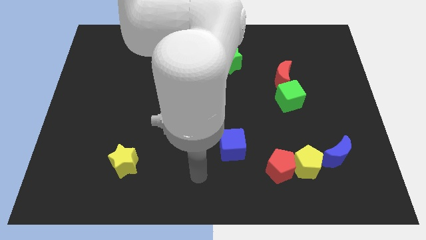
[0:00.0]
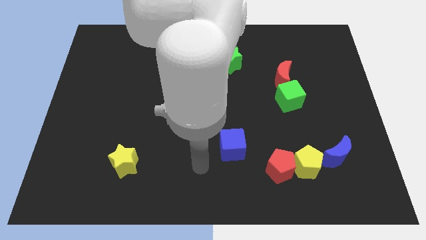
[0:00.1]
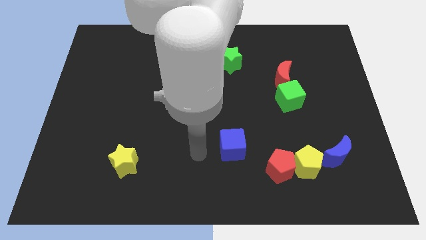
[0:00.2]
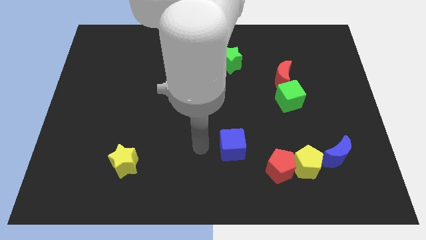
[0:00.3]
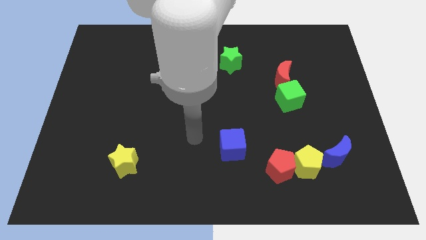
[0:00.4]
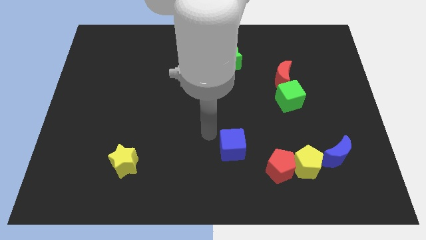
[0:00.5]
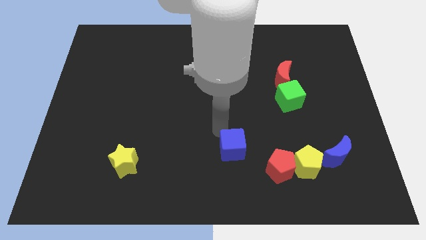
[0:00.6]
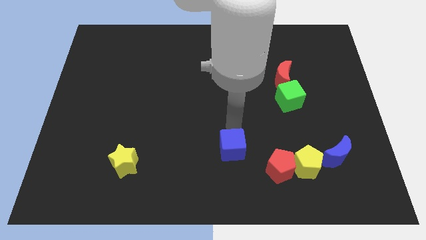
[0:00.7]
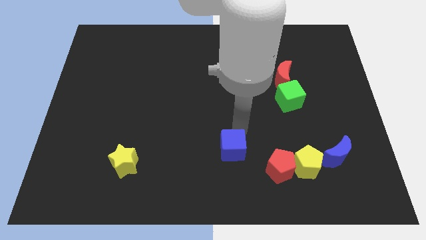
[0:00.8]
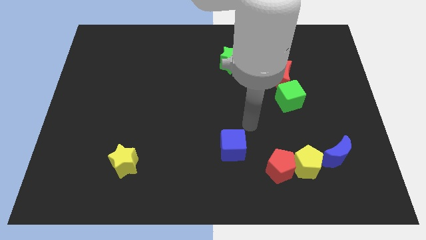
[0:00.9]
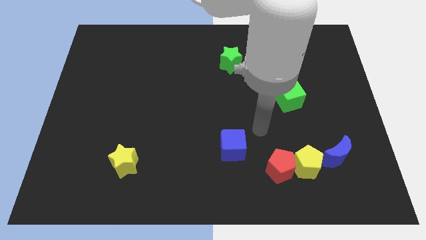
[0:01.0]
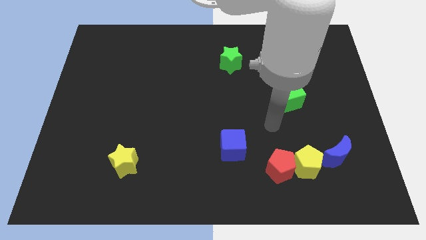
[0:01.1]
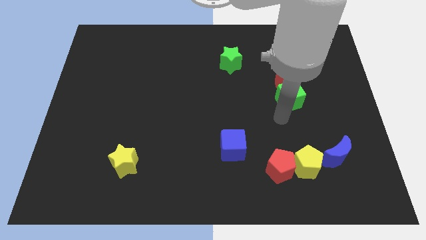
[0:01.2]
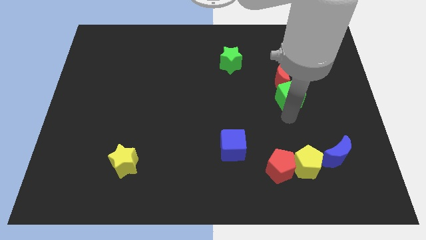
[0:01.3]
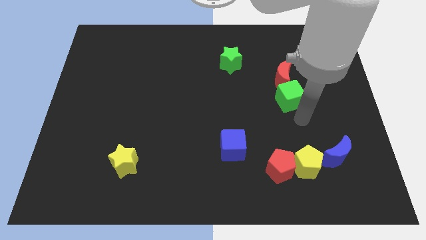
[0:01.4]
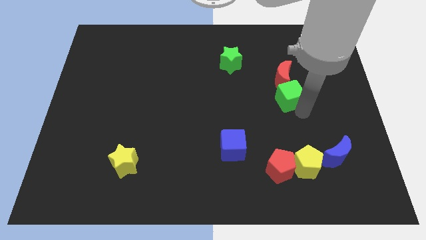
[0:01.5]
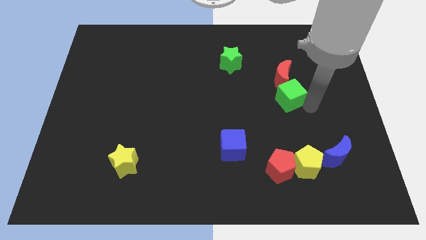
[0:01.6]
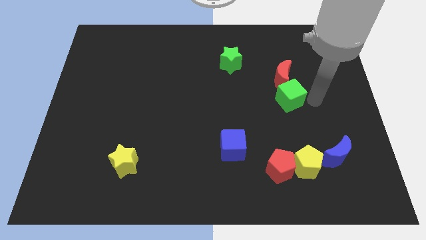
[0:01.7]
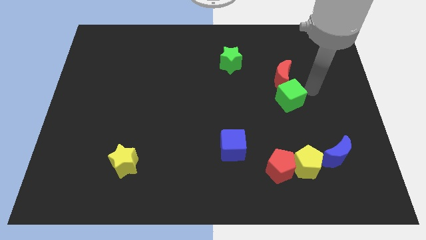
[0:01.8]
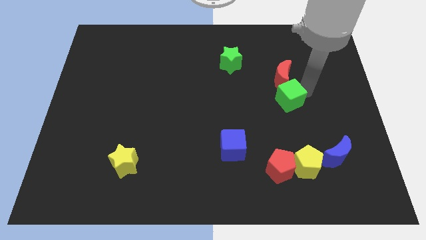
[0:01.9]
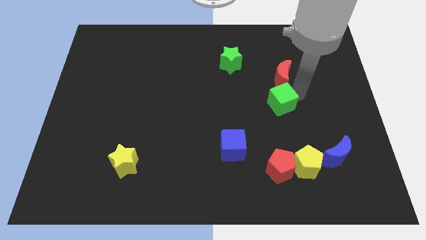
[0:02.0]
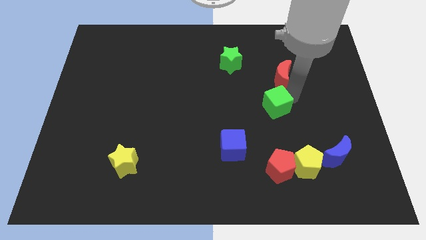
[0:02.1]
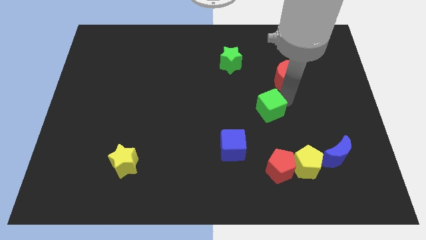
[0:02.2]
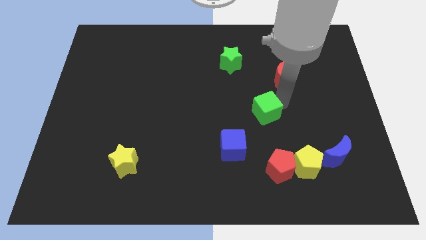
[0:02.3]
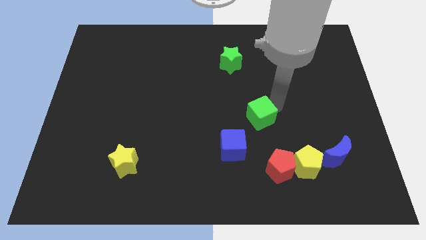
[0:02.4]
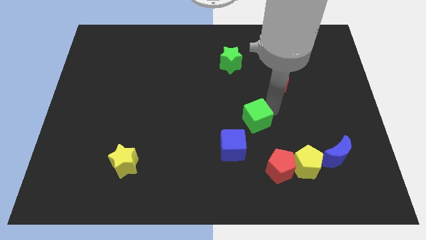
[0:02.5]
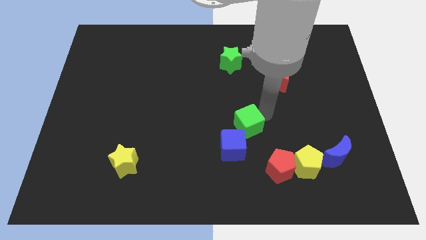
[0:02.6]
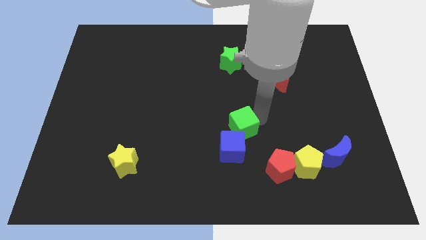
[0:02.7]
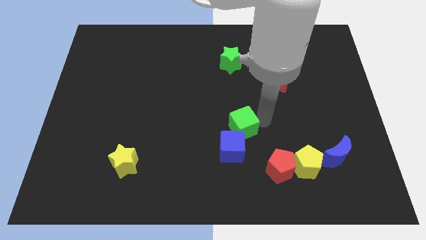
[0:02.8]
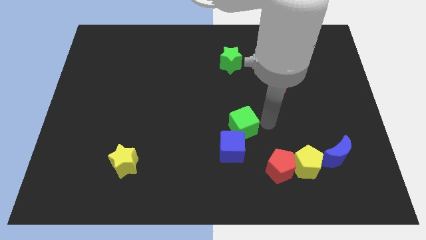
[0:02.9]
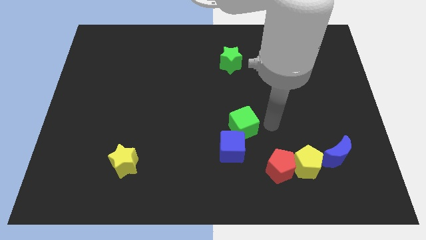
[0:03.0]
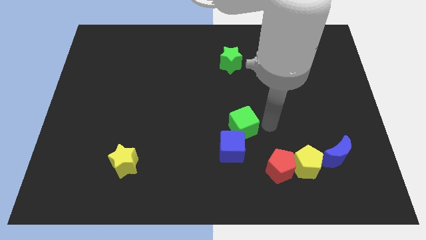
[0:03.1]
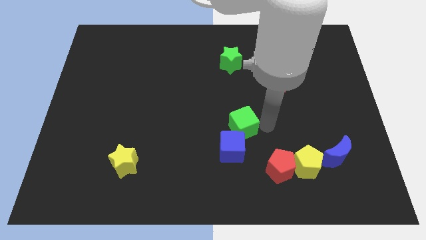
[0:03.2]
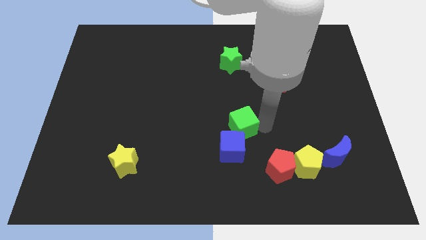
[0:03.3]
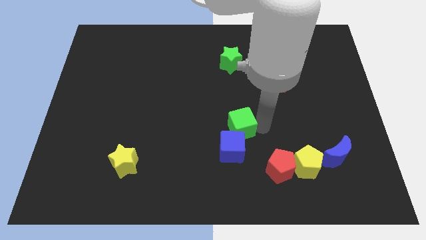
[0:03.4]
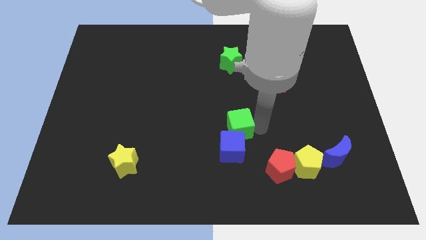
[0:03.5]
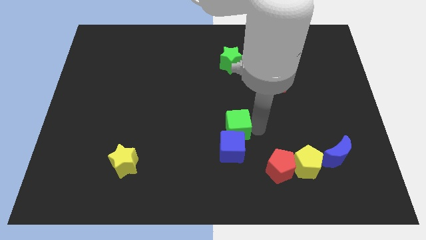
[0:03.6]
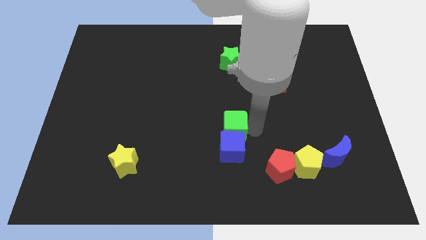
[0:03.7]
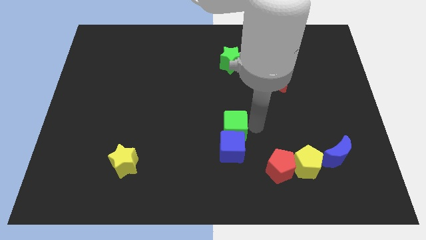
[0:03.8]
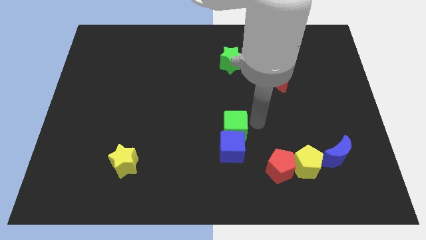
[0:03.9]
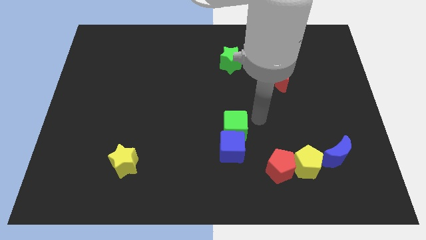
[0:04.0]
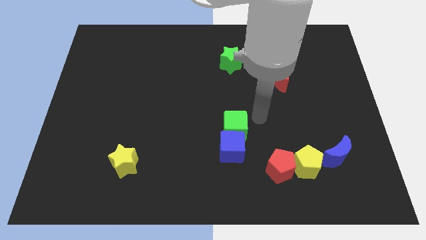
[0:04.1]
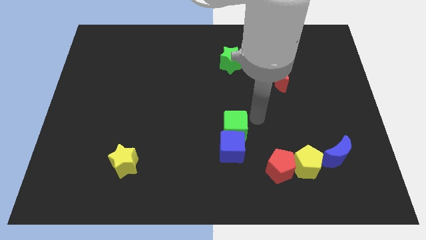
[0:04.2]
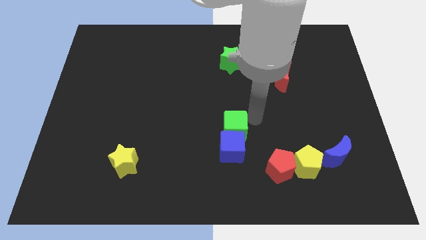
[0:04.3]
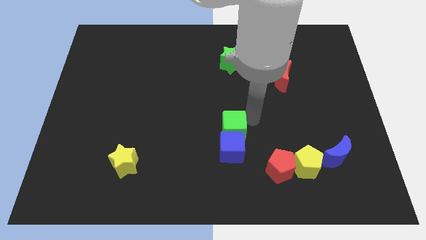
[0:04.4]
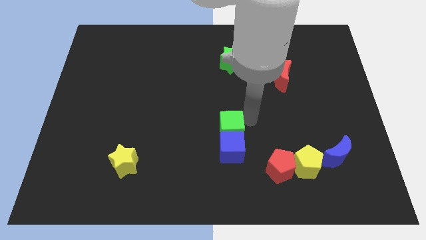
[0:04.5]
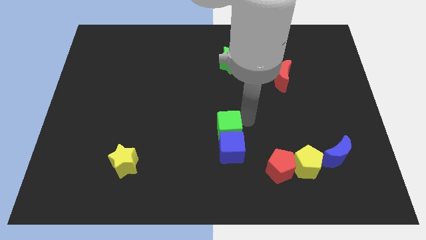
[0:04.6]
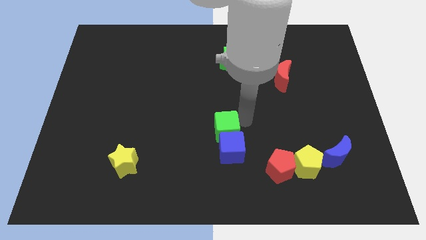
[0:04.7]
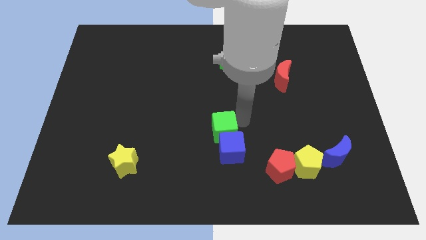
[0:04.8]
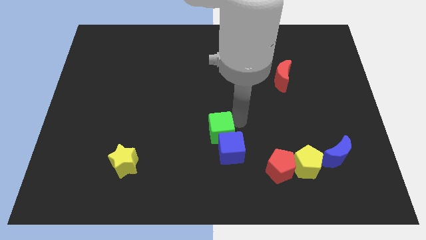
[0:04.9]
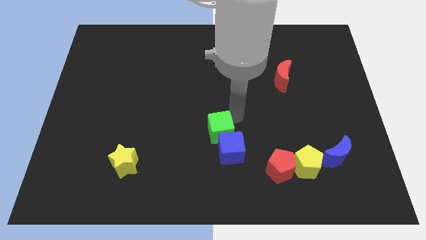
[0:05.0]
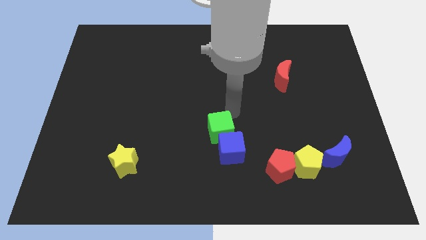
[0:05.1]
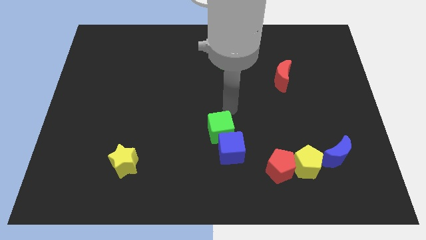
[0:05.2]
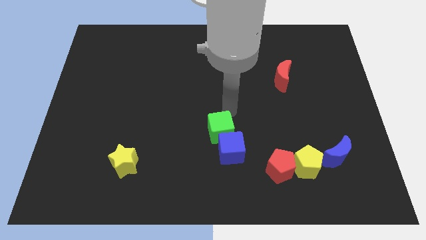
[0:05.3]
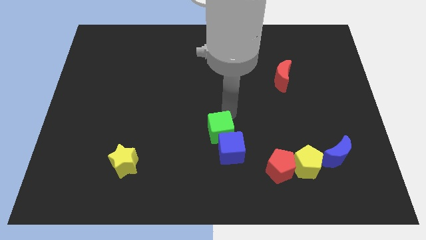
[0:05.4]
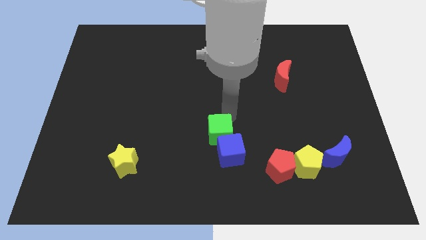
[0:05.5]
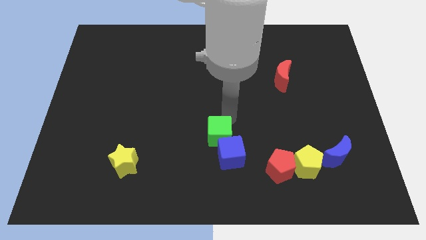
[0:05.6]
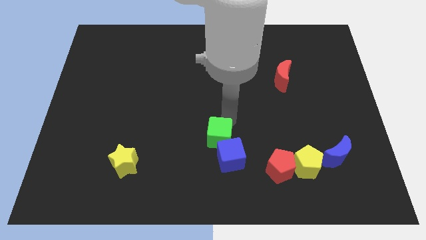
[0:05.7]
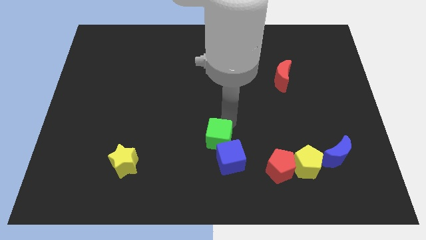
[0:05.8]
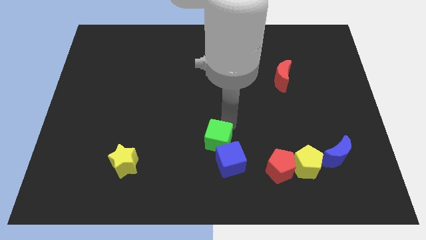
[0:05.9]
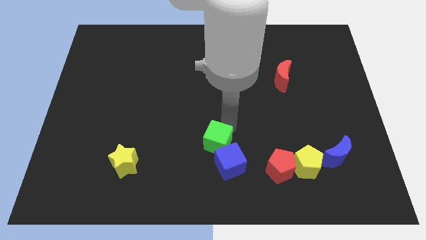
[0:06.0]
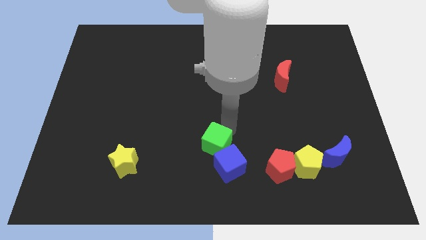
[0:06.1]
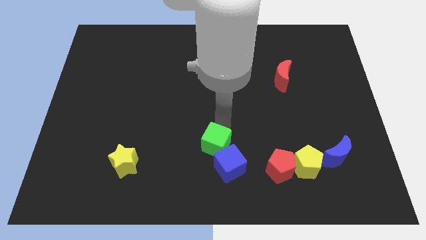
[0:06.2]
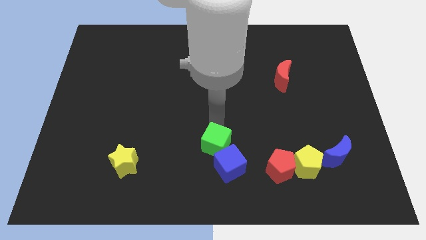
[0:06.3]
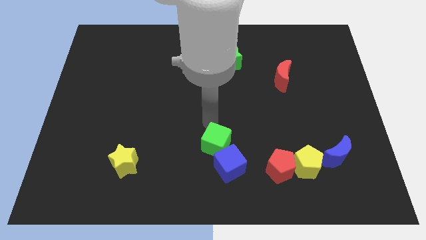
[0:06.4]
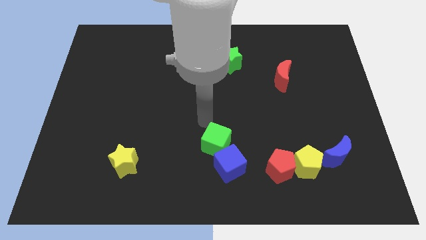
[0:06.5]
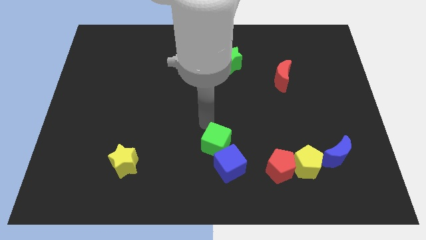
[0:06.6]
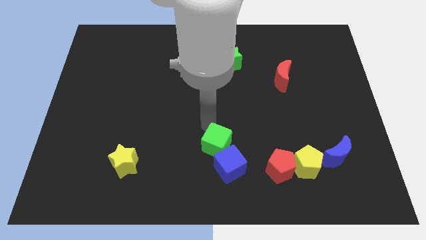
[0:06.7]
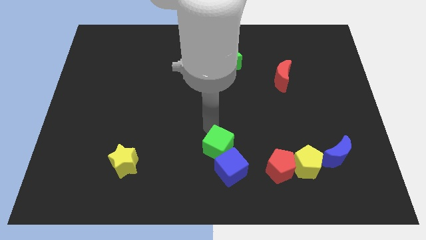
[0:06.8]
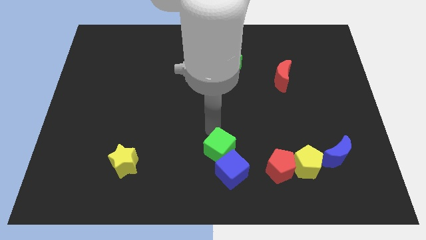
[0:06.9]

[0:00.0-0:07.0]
push the green cube left of the red pentagon
